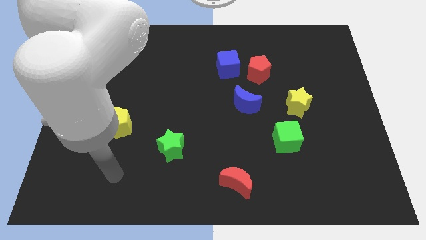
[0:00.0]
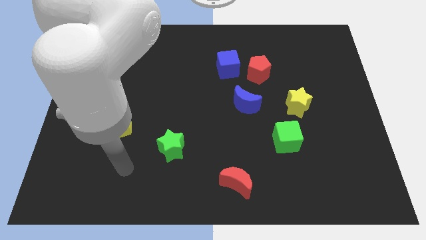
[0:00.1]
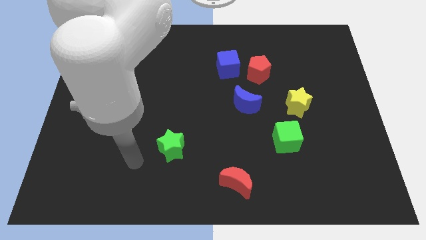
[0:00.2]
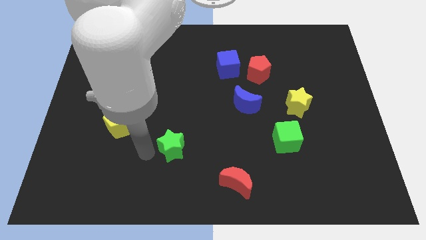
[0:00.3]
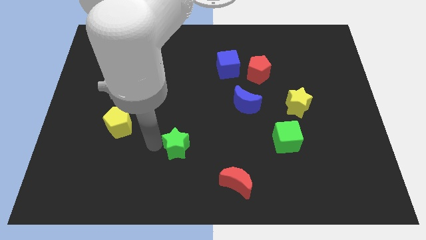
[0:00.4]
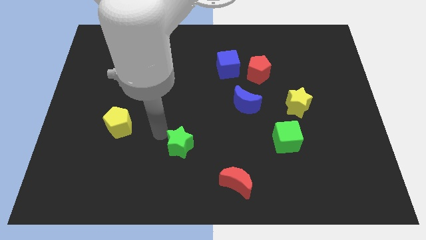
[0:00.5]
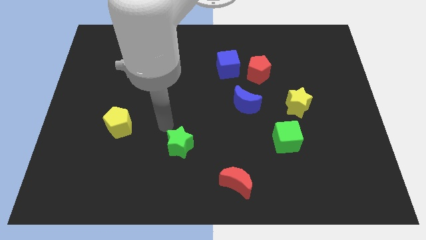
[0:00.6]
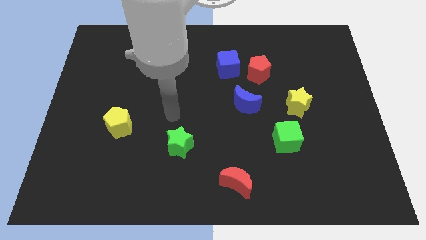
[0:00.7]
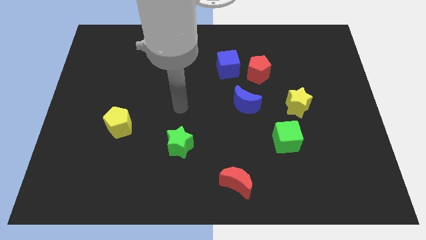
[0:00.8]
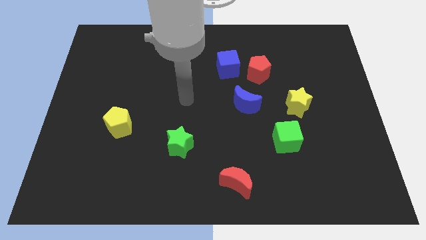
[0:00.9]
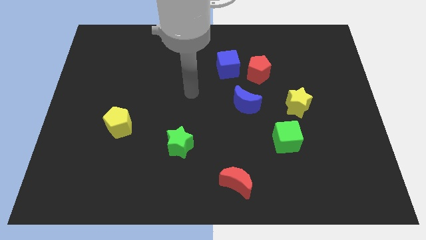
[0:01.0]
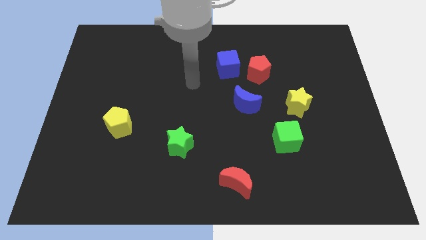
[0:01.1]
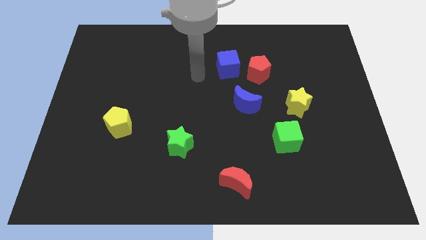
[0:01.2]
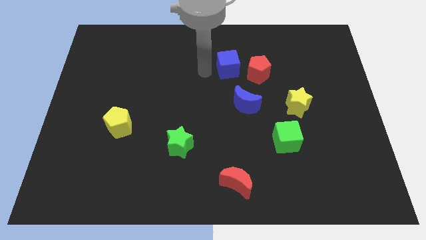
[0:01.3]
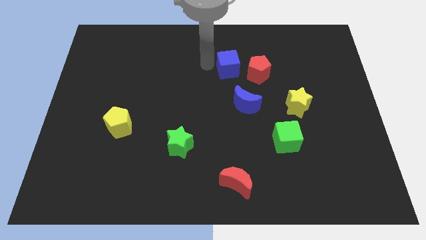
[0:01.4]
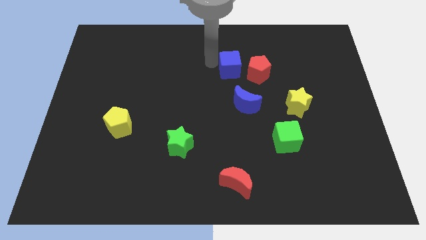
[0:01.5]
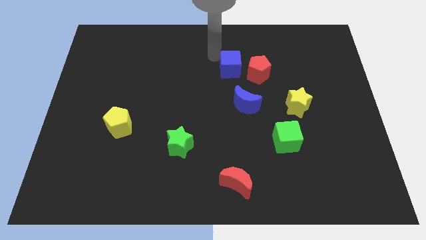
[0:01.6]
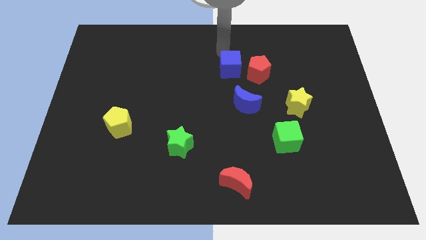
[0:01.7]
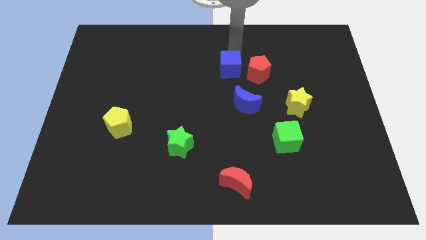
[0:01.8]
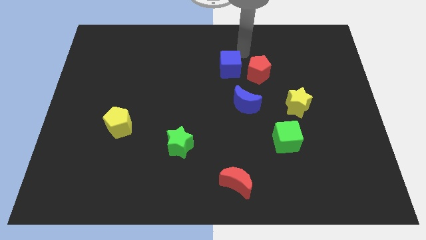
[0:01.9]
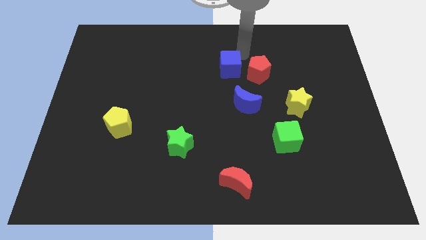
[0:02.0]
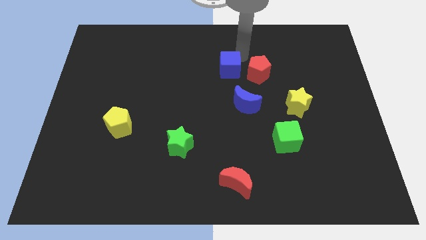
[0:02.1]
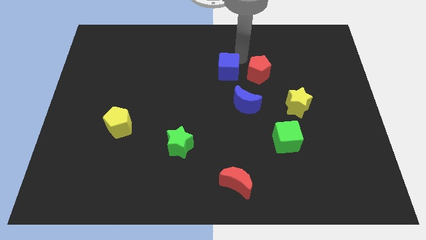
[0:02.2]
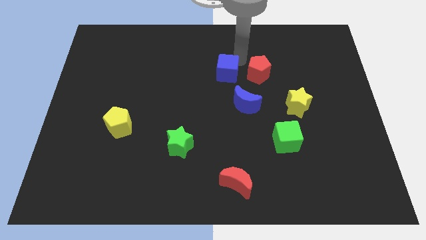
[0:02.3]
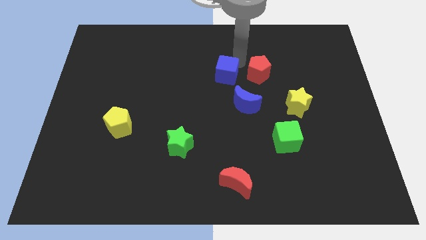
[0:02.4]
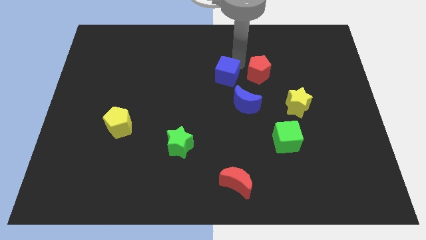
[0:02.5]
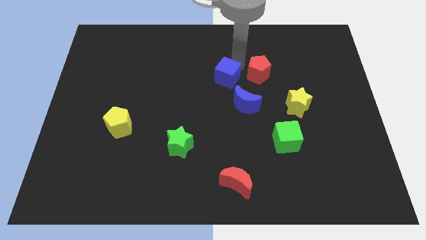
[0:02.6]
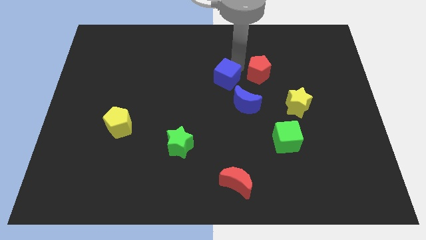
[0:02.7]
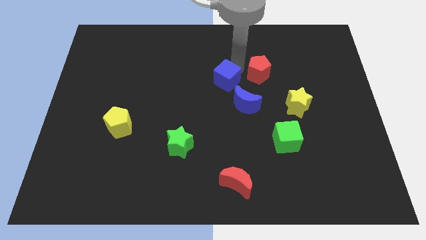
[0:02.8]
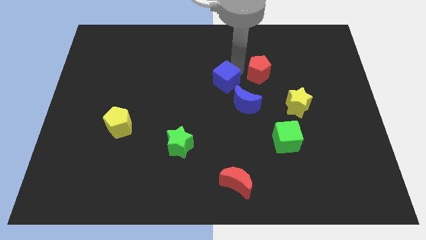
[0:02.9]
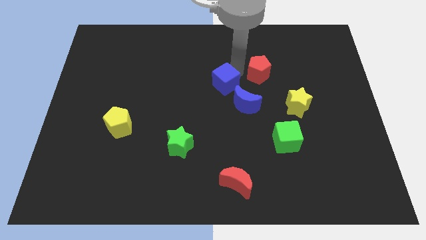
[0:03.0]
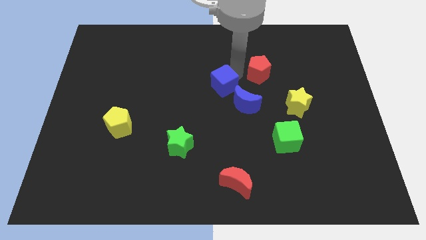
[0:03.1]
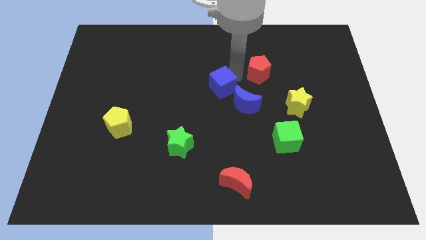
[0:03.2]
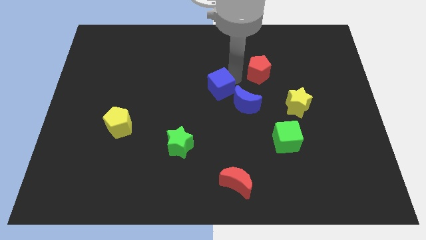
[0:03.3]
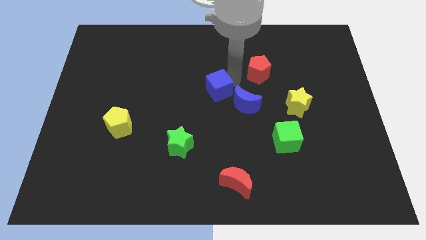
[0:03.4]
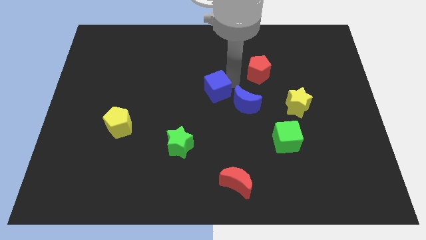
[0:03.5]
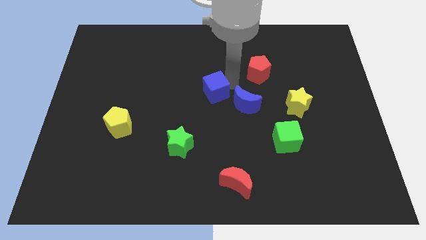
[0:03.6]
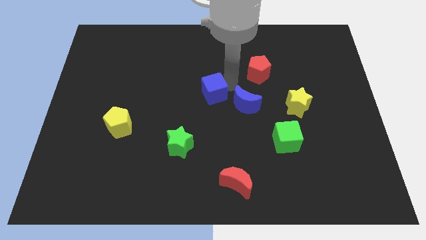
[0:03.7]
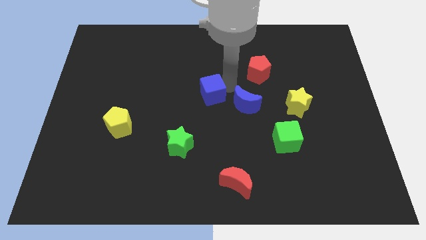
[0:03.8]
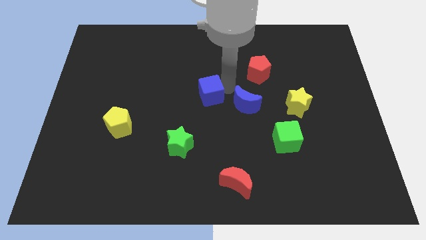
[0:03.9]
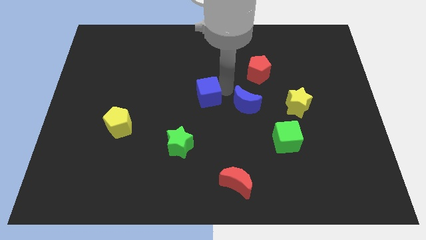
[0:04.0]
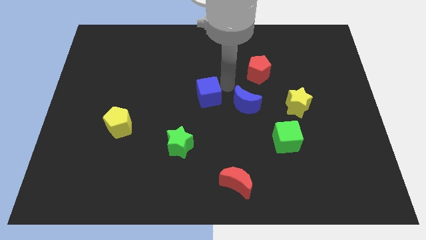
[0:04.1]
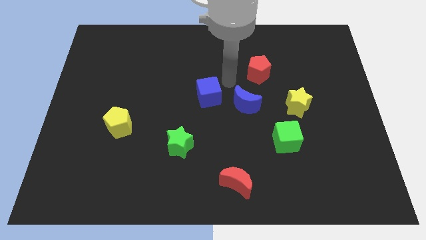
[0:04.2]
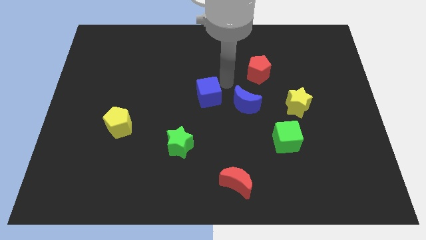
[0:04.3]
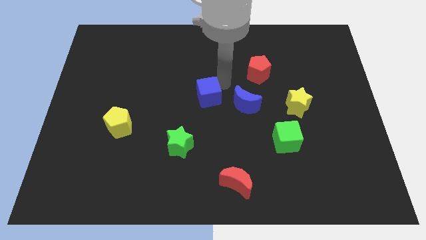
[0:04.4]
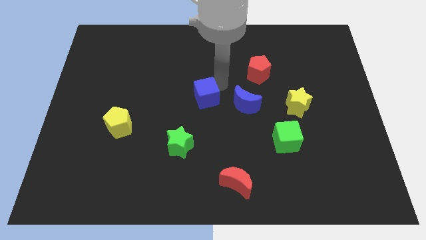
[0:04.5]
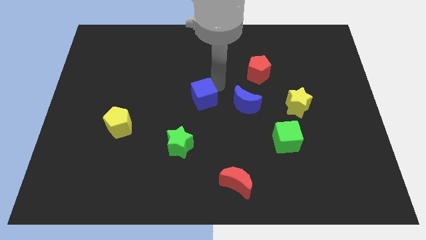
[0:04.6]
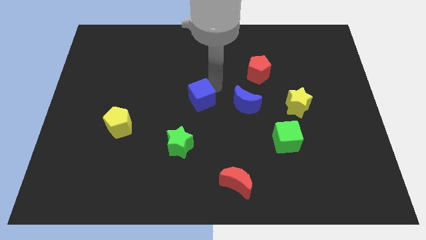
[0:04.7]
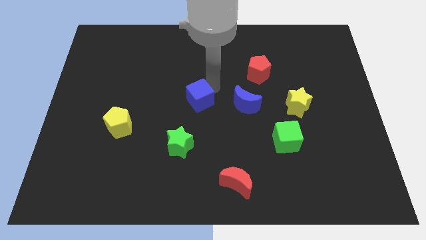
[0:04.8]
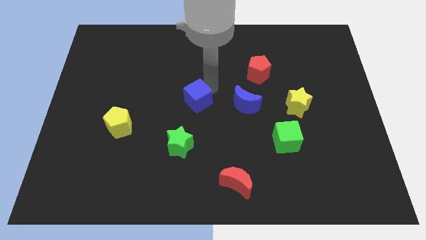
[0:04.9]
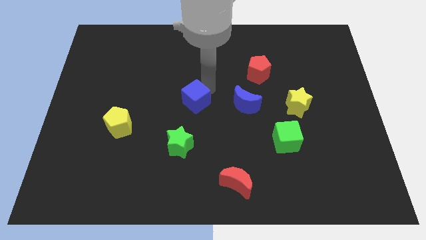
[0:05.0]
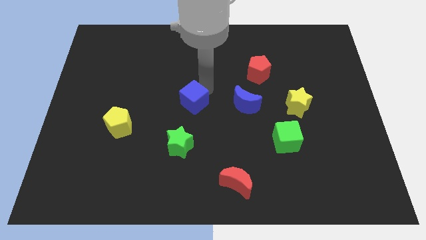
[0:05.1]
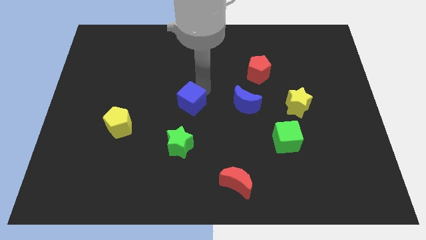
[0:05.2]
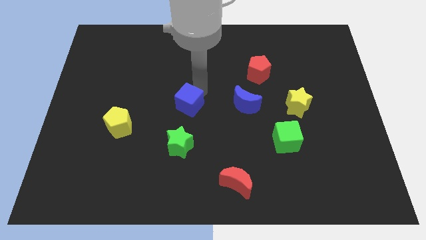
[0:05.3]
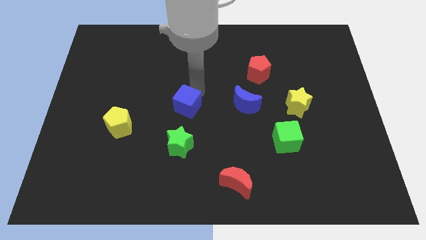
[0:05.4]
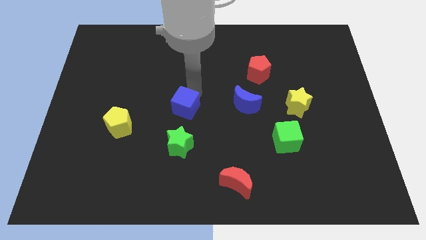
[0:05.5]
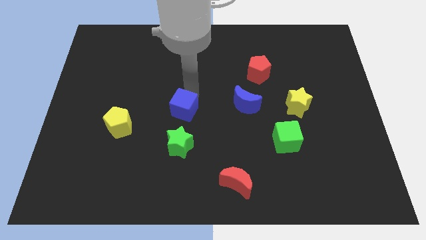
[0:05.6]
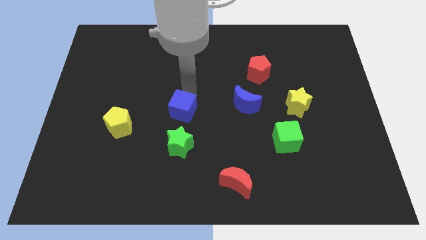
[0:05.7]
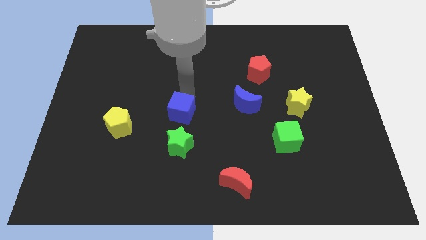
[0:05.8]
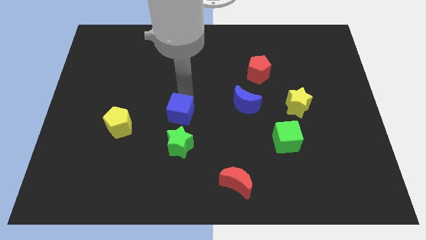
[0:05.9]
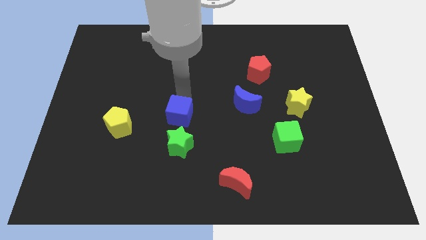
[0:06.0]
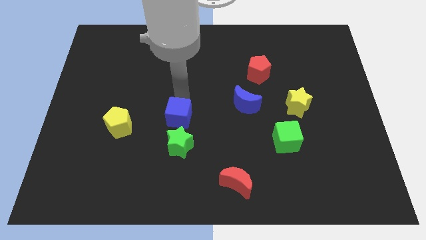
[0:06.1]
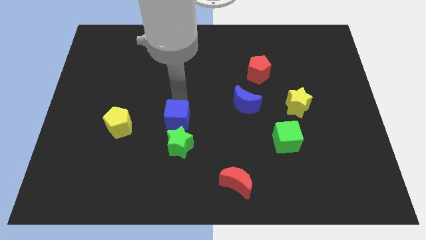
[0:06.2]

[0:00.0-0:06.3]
push the blue cube downwards and to the left diagonally

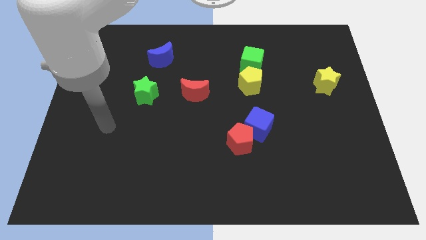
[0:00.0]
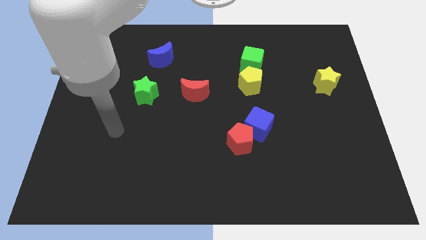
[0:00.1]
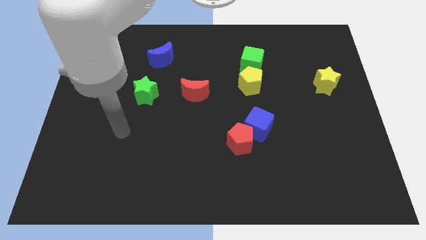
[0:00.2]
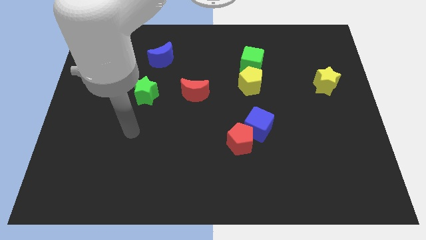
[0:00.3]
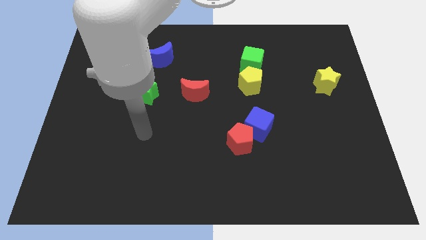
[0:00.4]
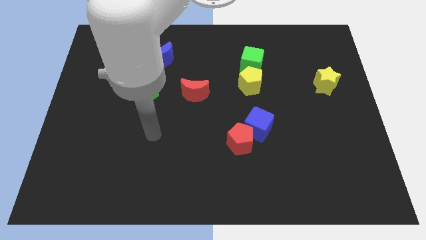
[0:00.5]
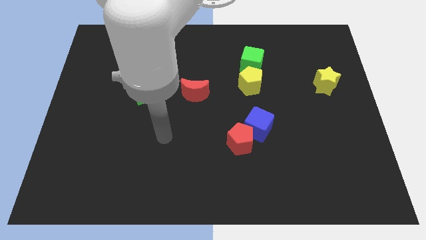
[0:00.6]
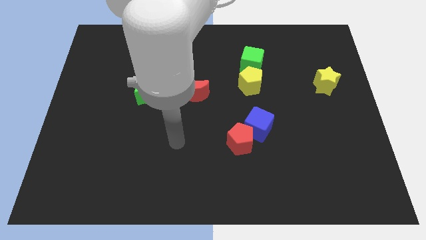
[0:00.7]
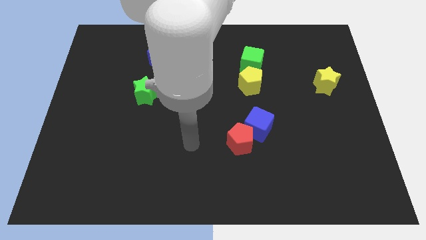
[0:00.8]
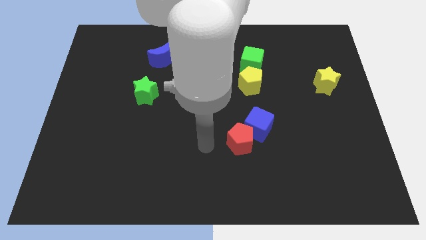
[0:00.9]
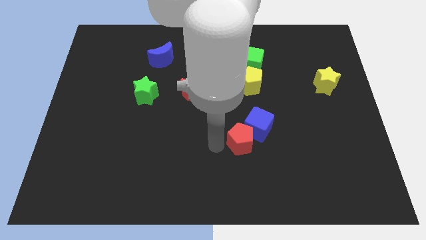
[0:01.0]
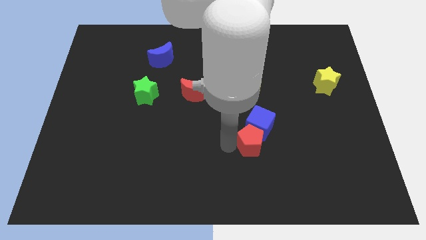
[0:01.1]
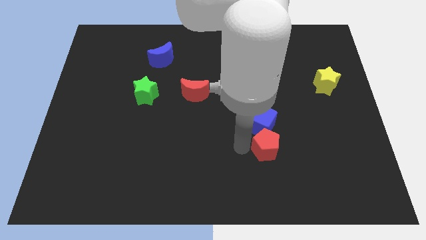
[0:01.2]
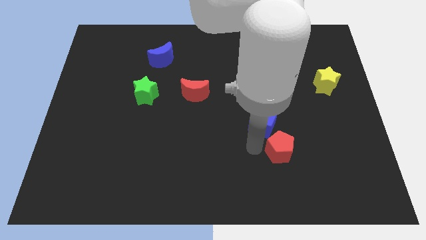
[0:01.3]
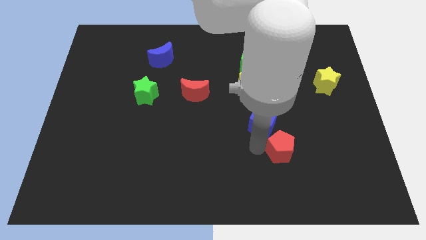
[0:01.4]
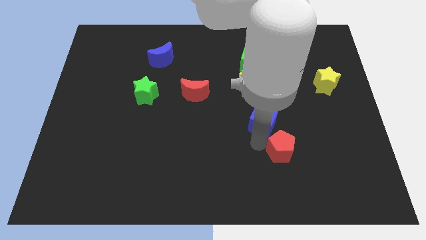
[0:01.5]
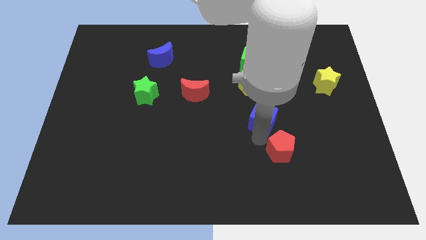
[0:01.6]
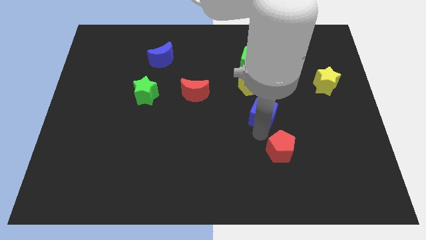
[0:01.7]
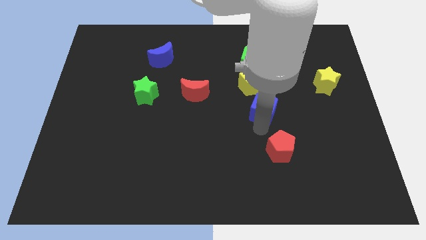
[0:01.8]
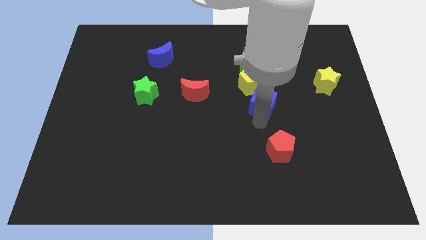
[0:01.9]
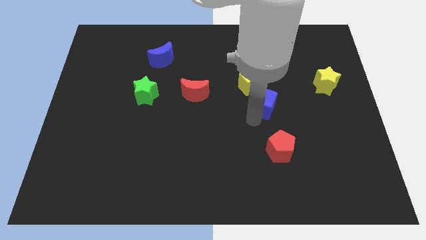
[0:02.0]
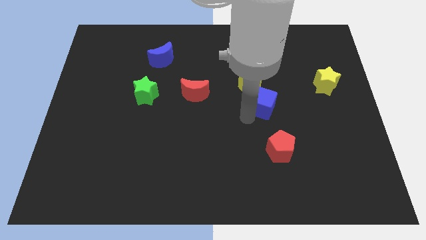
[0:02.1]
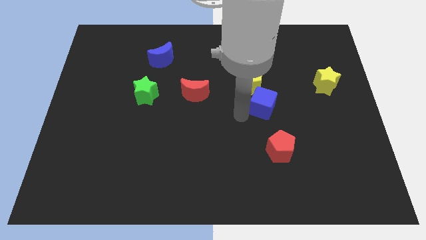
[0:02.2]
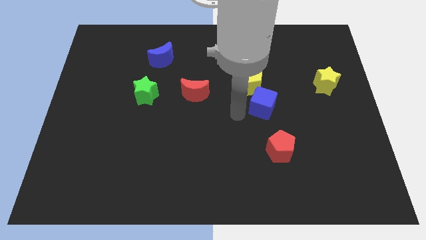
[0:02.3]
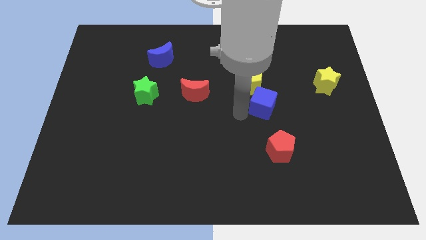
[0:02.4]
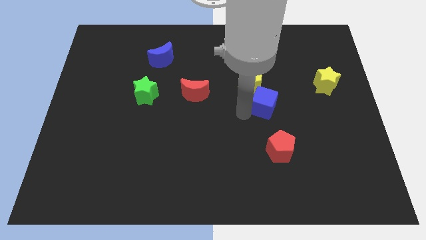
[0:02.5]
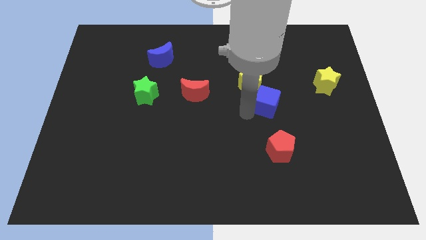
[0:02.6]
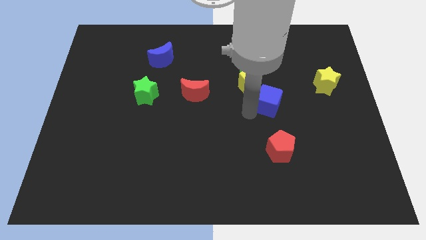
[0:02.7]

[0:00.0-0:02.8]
slightly move the blue cube up and then to the right
